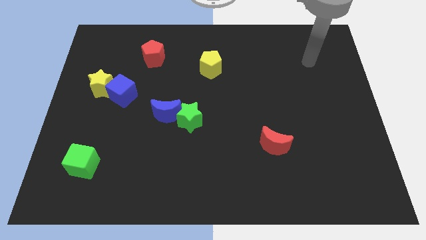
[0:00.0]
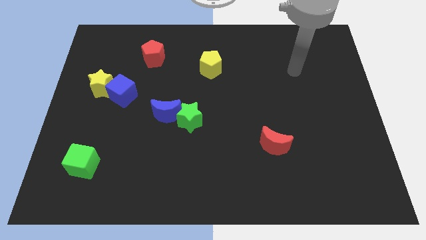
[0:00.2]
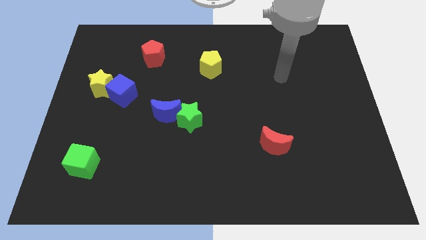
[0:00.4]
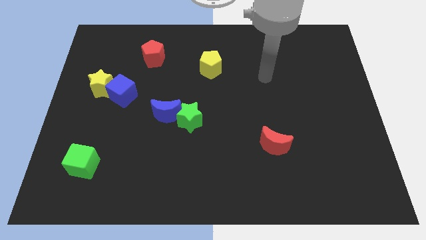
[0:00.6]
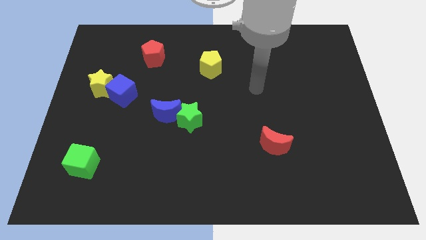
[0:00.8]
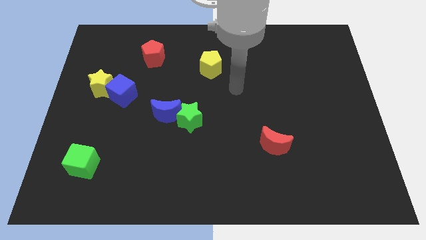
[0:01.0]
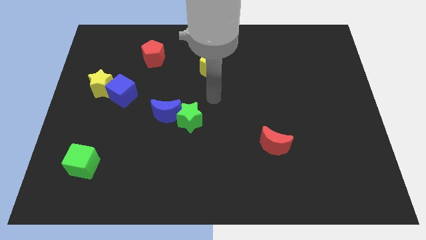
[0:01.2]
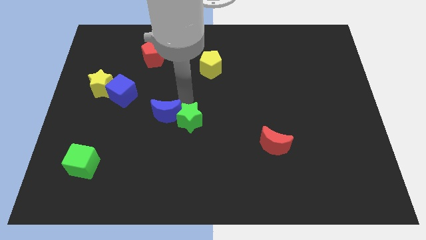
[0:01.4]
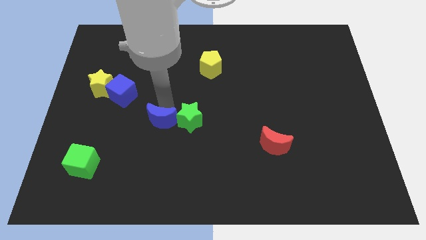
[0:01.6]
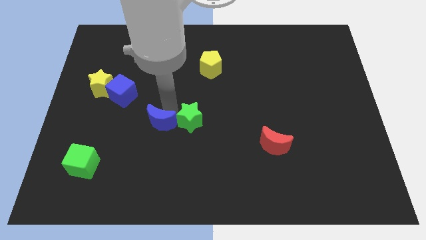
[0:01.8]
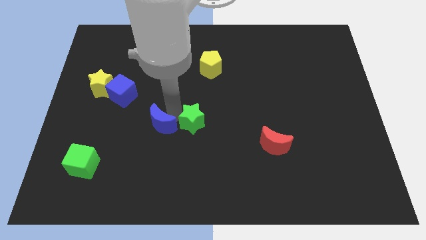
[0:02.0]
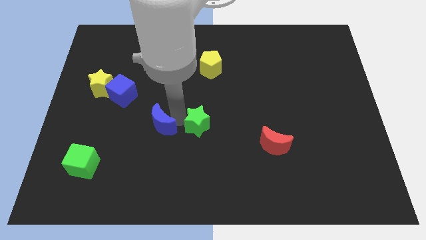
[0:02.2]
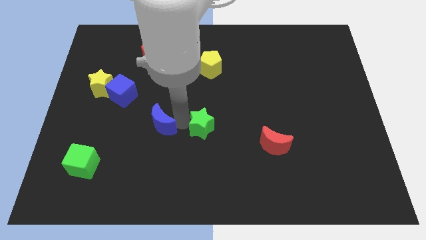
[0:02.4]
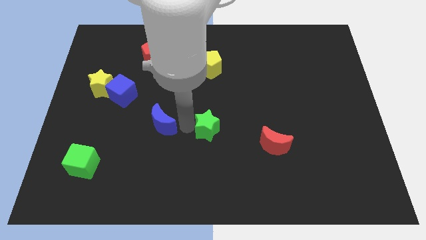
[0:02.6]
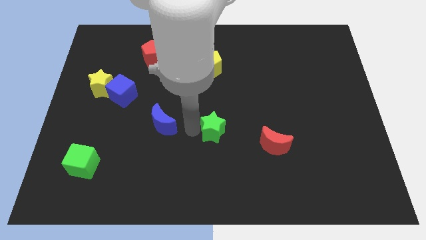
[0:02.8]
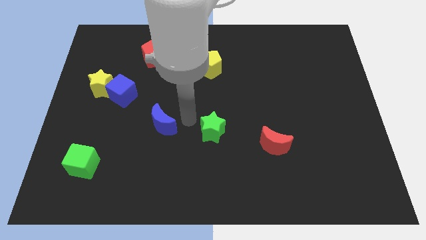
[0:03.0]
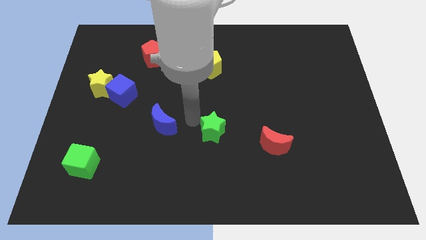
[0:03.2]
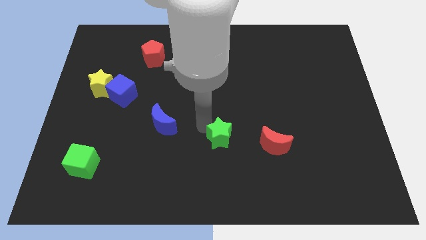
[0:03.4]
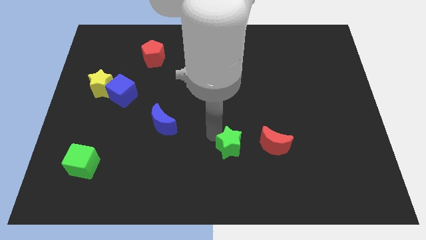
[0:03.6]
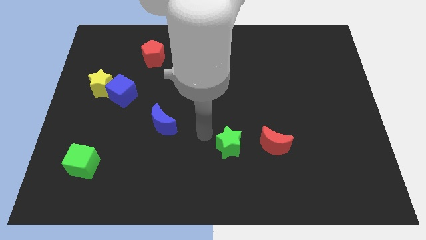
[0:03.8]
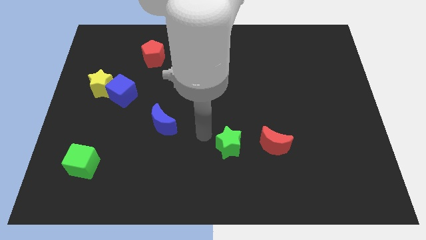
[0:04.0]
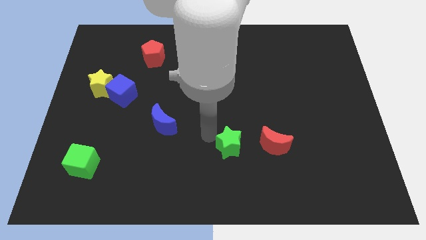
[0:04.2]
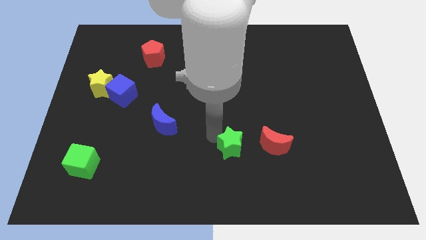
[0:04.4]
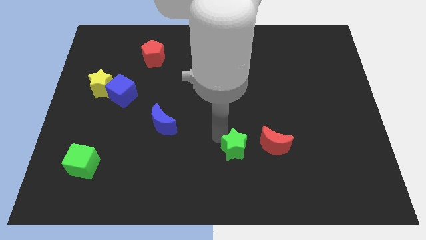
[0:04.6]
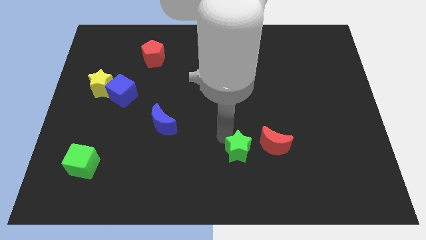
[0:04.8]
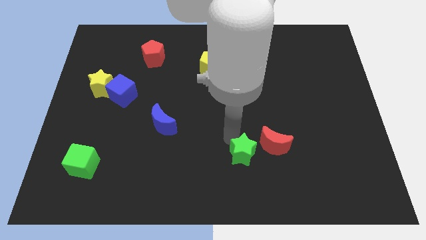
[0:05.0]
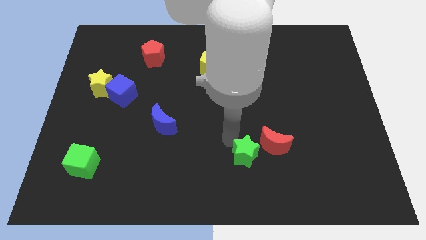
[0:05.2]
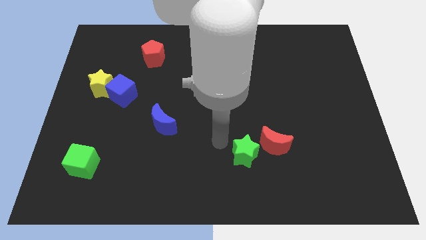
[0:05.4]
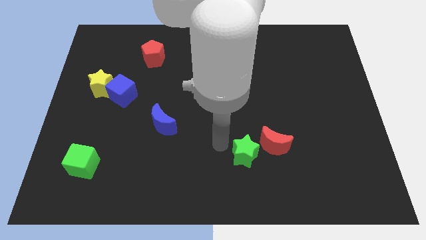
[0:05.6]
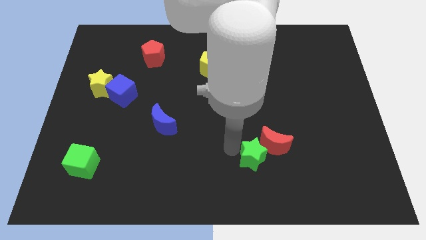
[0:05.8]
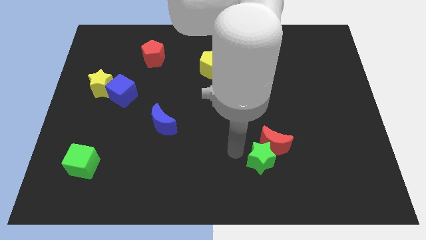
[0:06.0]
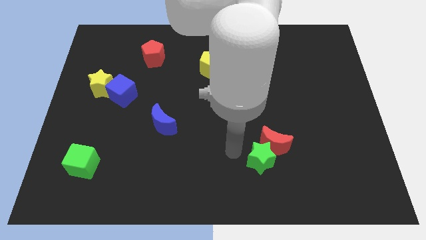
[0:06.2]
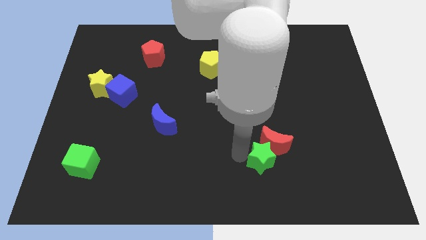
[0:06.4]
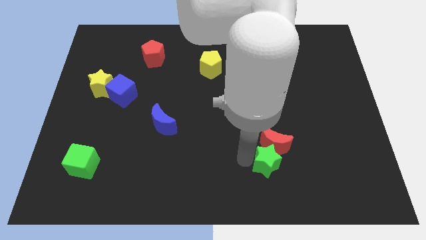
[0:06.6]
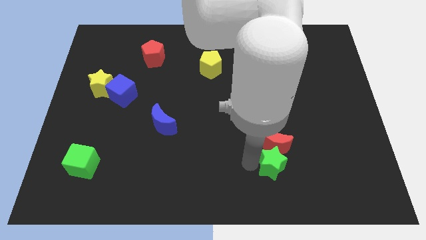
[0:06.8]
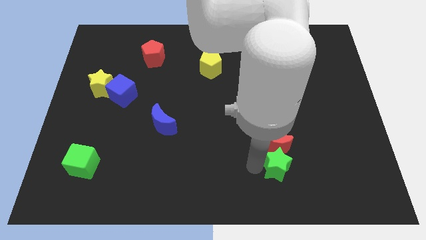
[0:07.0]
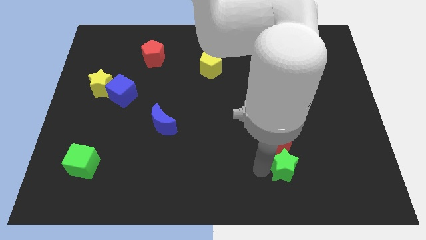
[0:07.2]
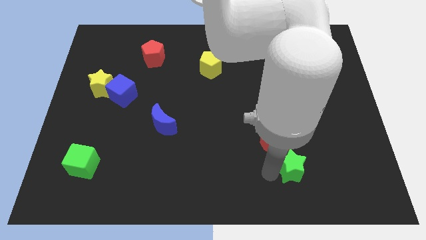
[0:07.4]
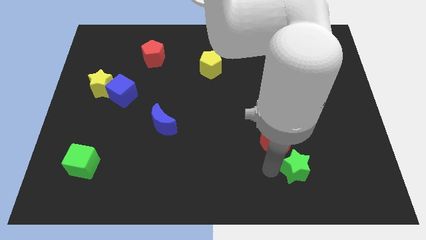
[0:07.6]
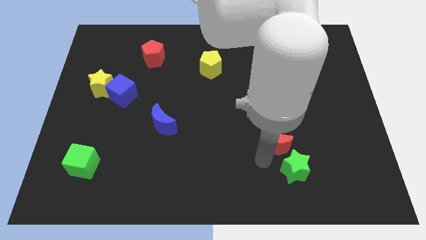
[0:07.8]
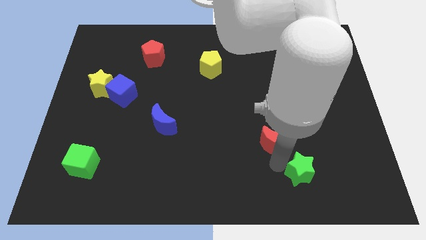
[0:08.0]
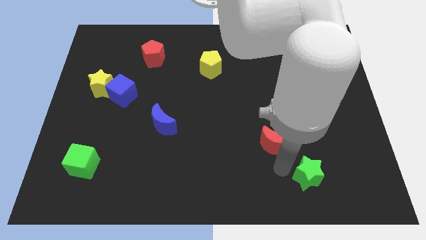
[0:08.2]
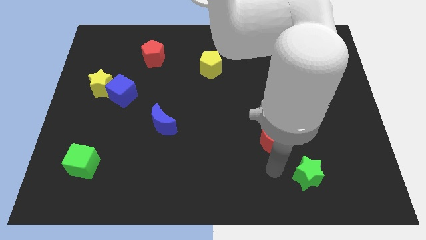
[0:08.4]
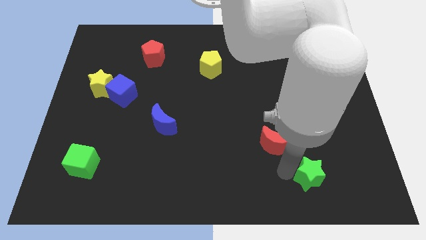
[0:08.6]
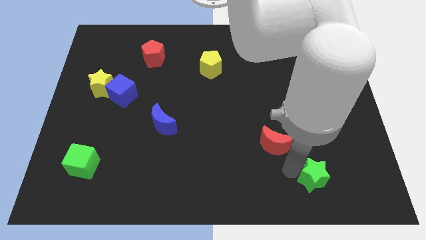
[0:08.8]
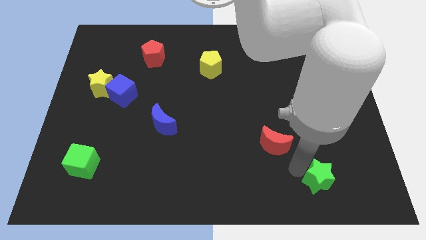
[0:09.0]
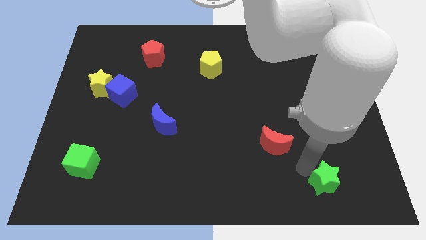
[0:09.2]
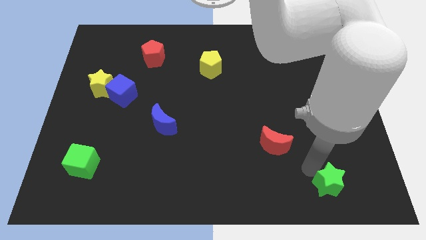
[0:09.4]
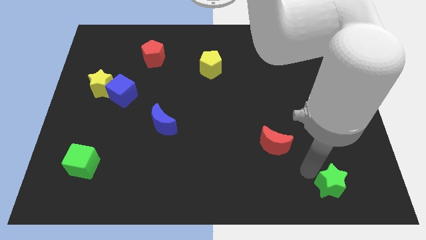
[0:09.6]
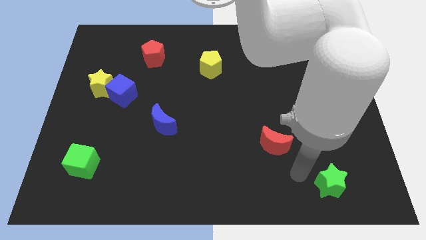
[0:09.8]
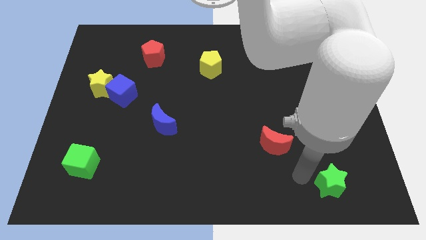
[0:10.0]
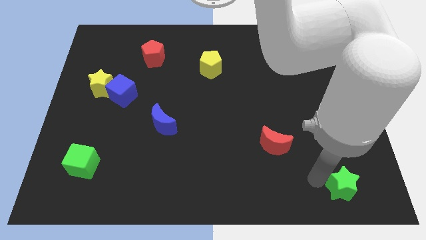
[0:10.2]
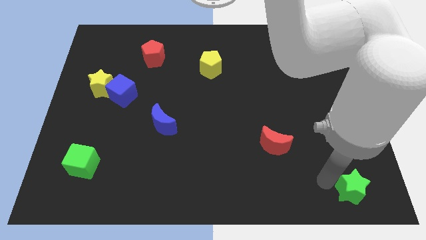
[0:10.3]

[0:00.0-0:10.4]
put the green star to the bottom right of the board
